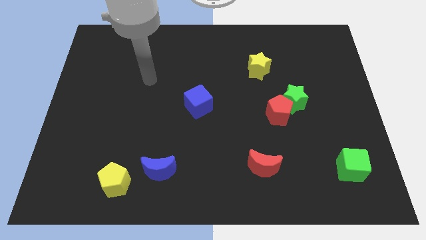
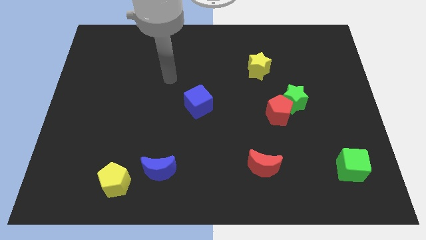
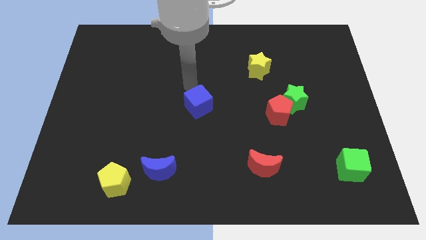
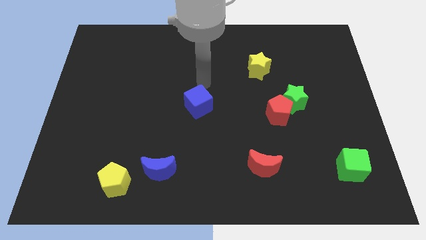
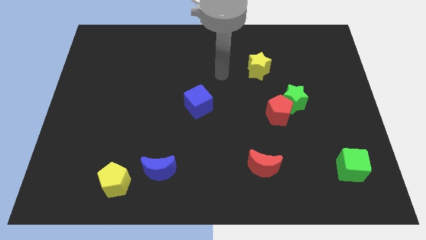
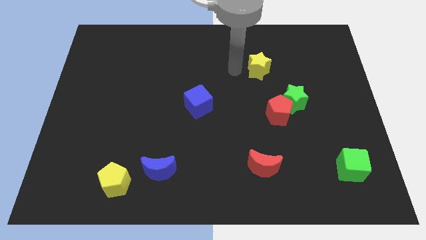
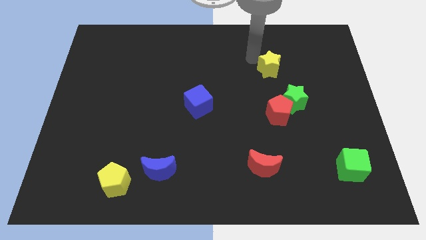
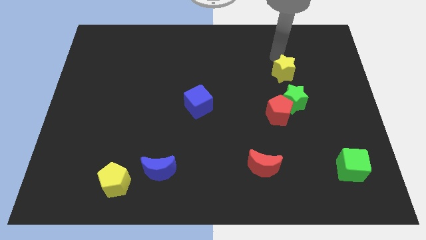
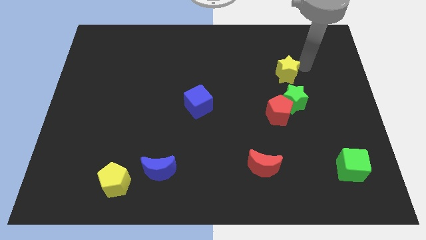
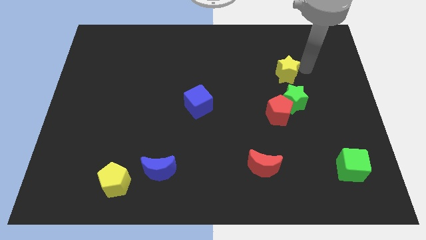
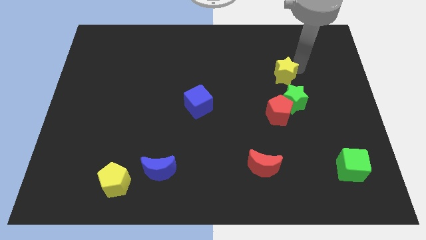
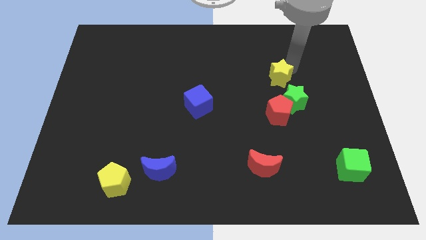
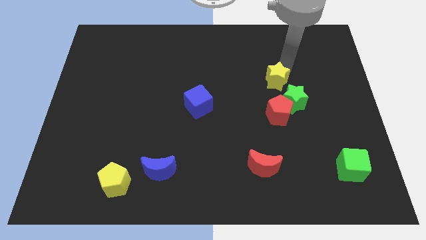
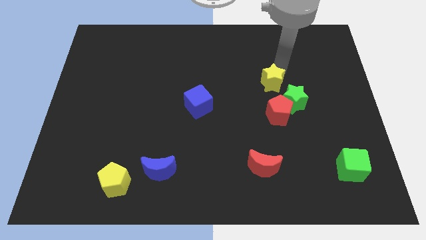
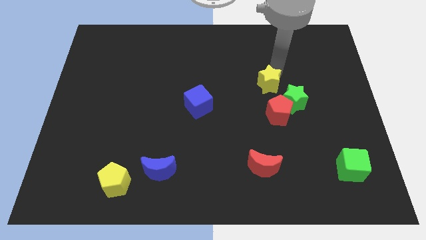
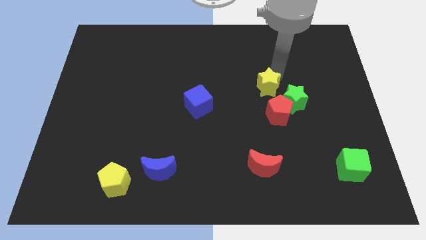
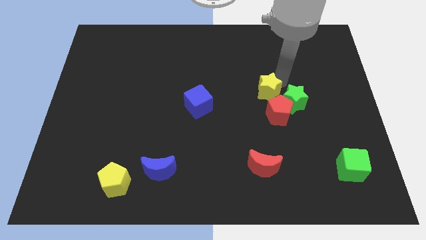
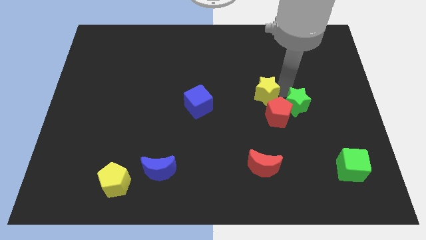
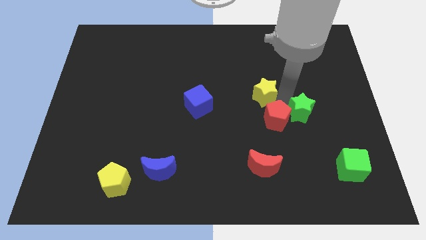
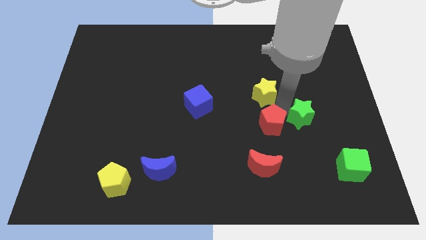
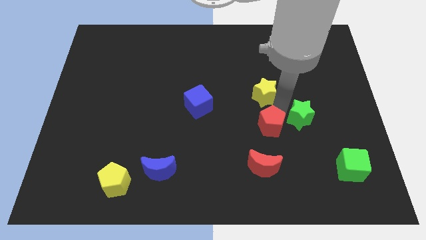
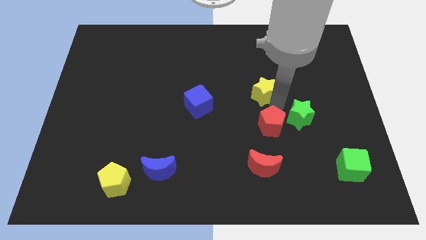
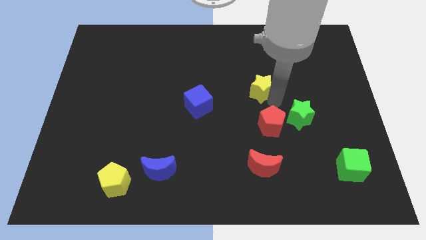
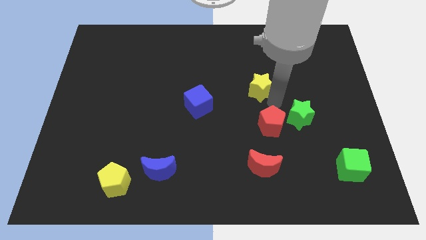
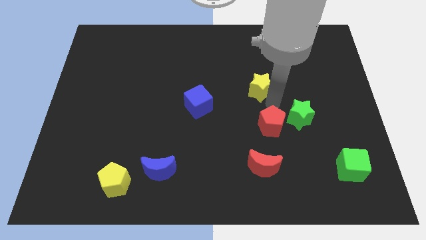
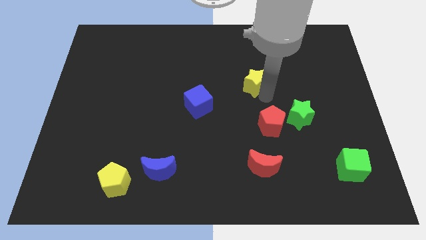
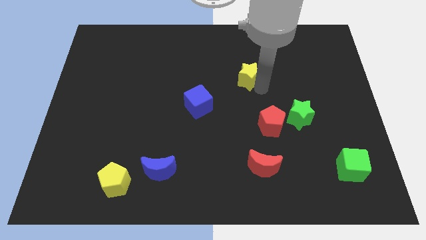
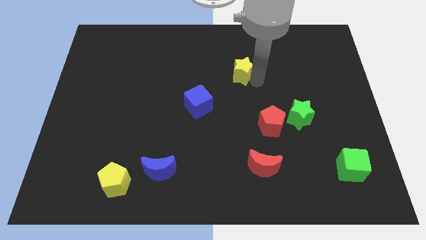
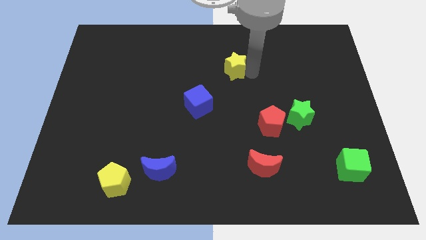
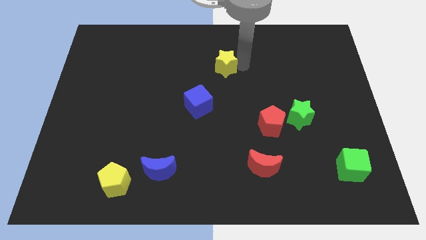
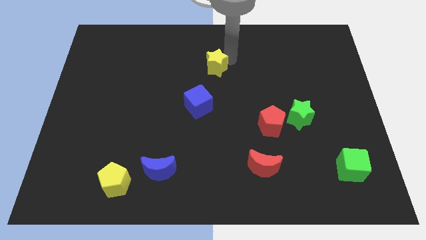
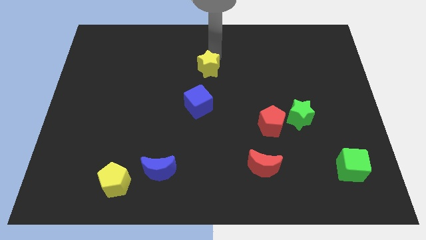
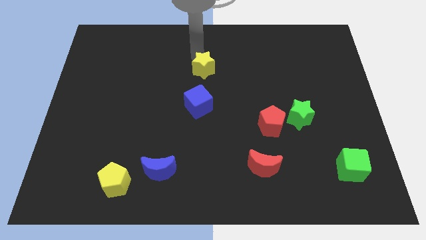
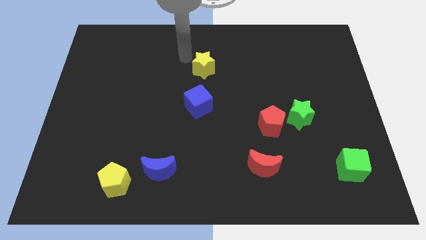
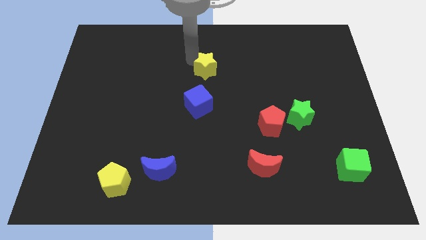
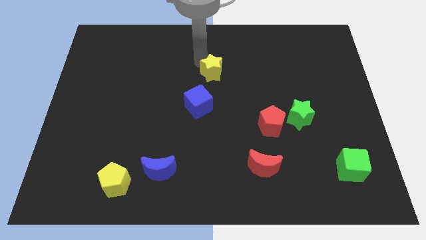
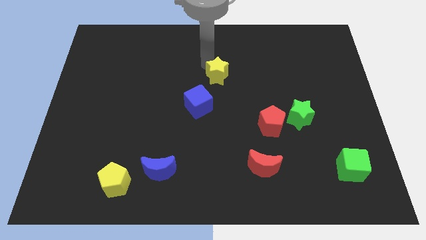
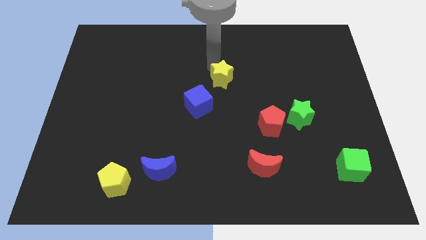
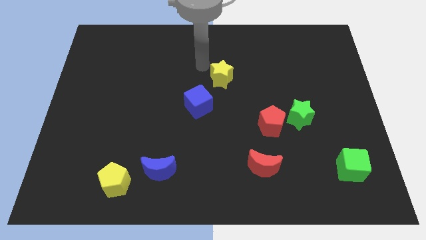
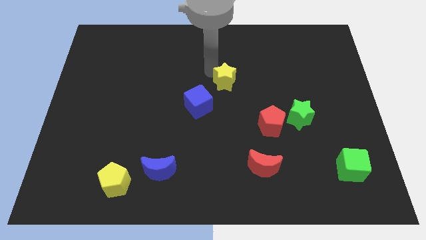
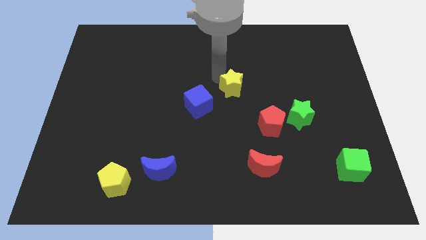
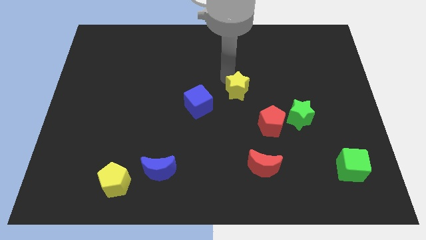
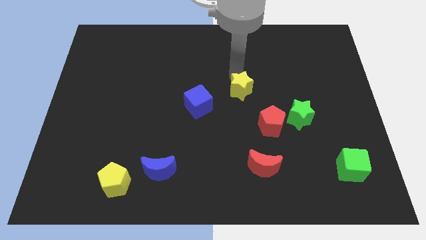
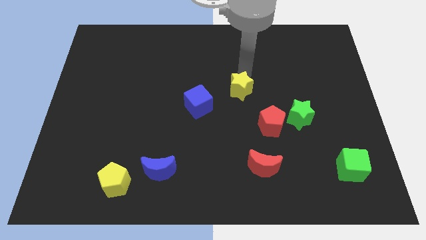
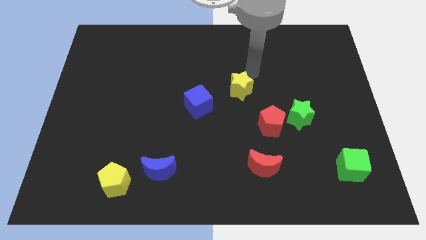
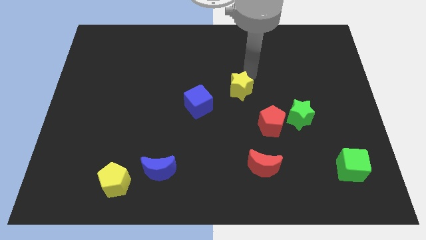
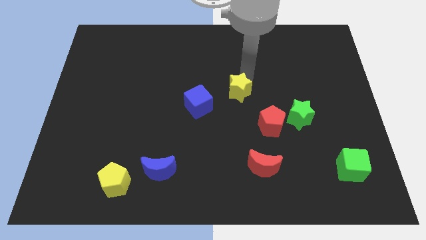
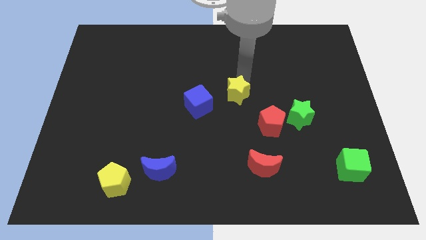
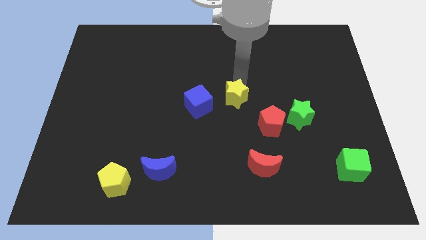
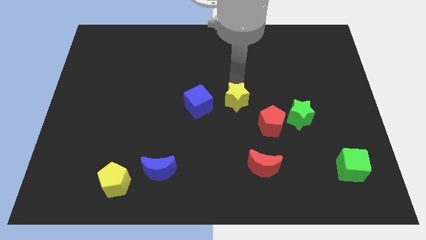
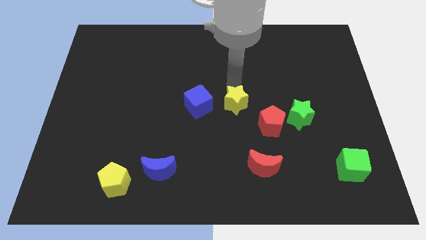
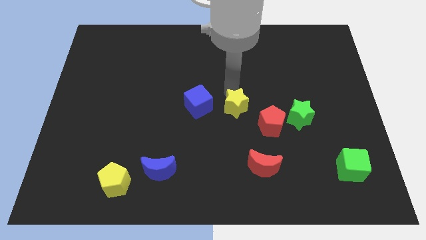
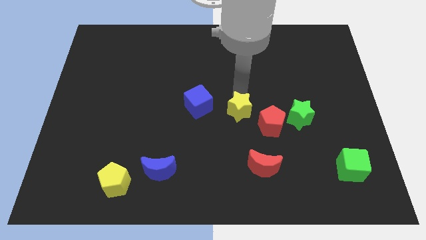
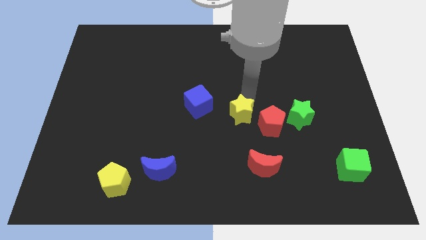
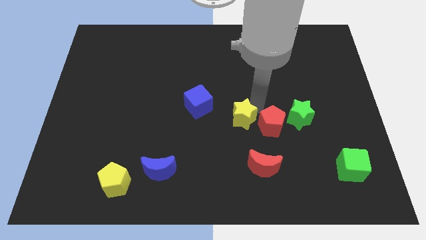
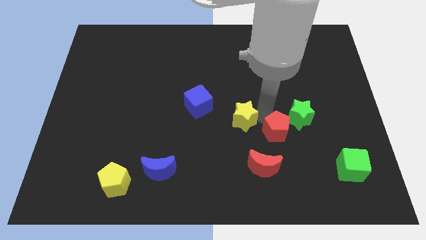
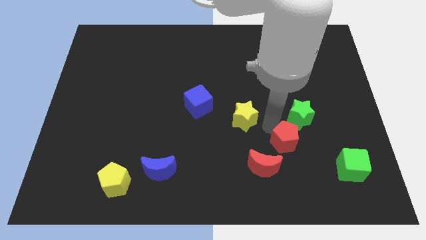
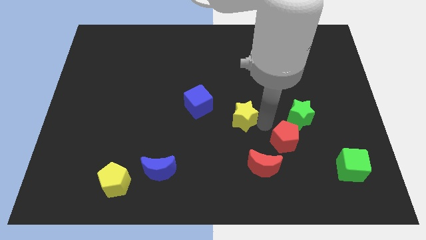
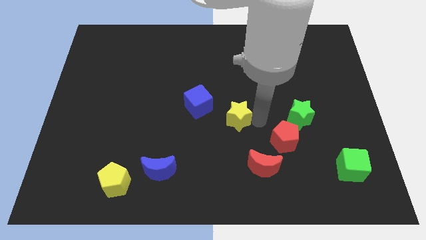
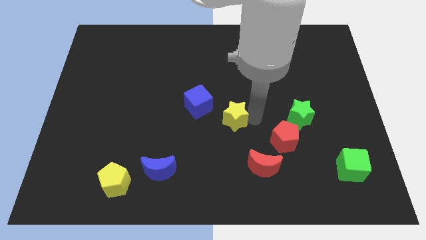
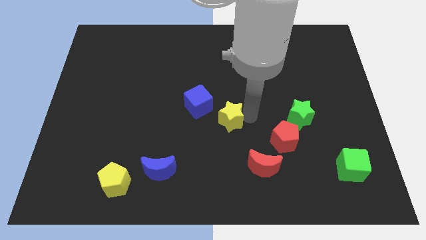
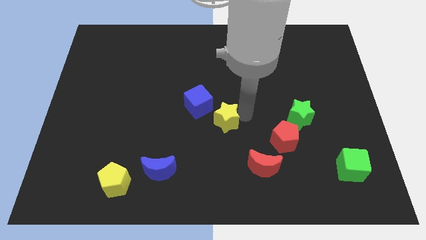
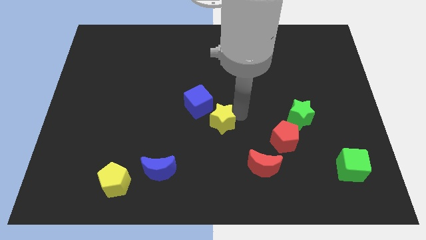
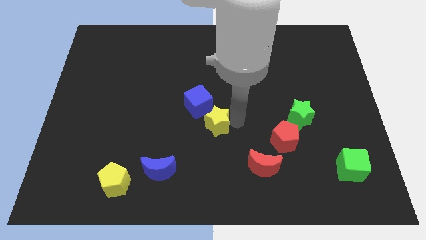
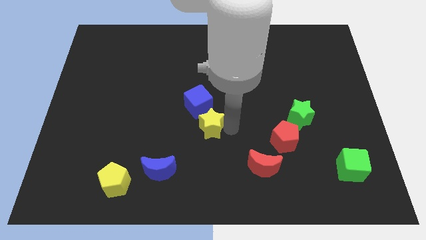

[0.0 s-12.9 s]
push the yellow star diagonally down and left

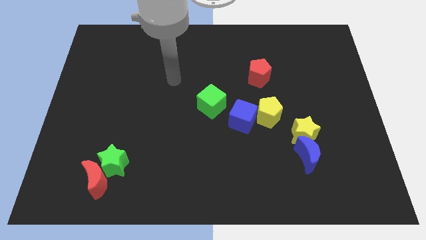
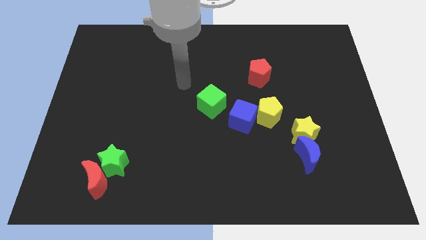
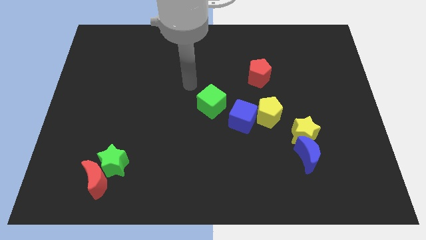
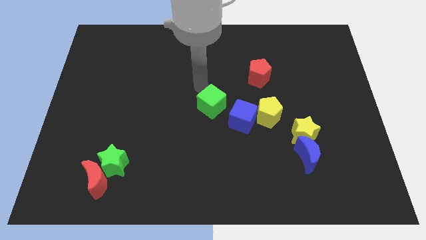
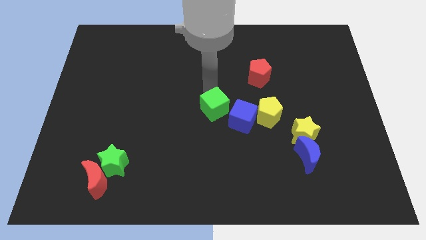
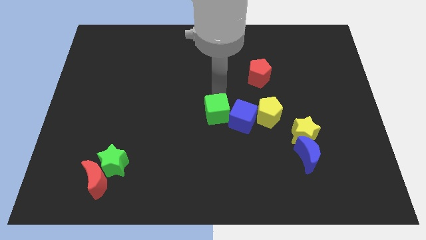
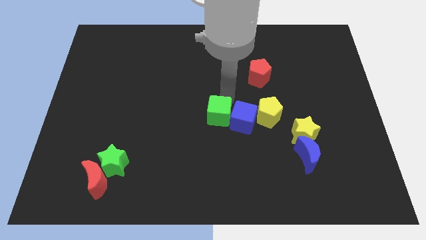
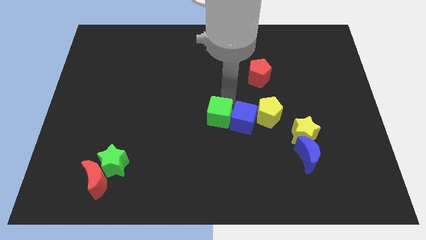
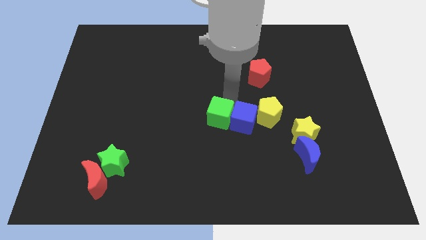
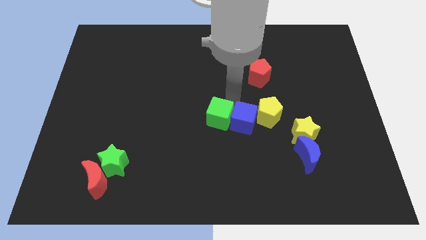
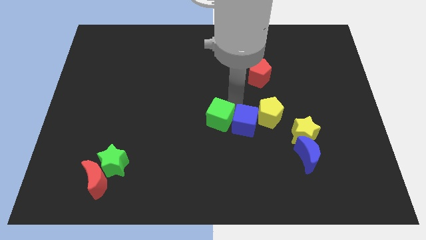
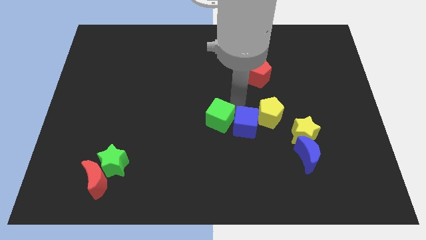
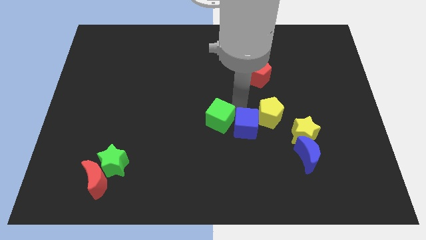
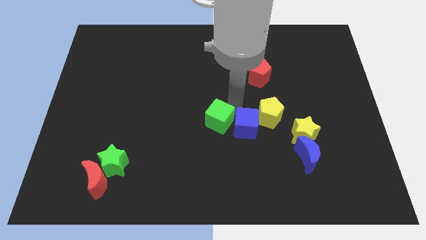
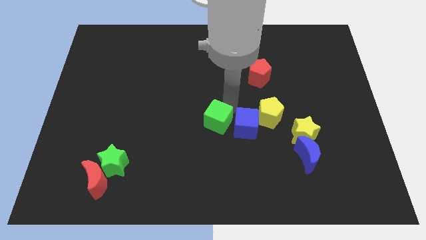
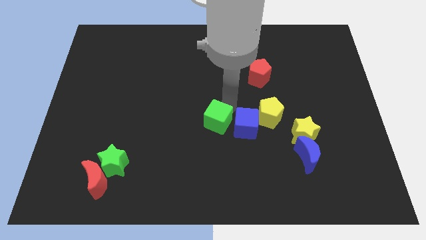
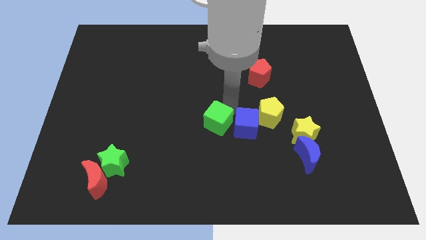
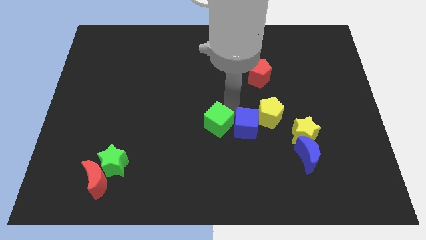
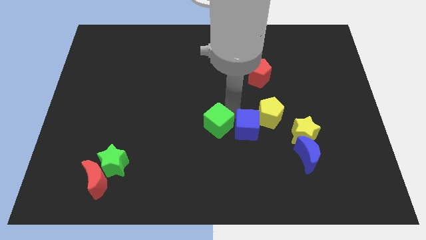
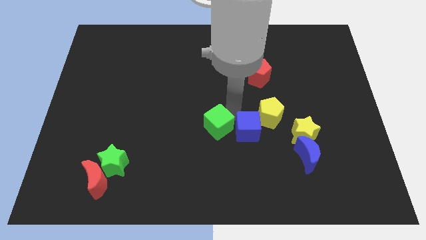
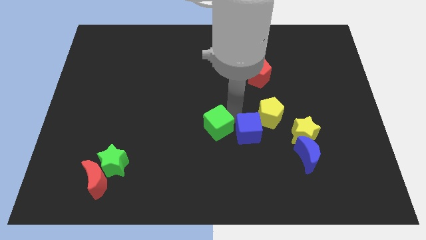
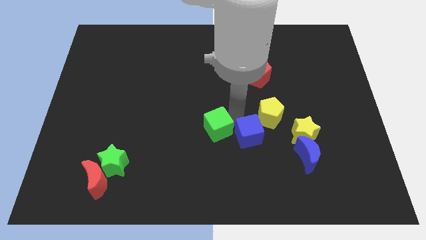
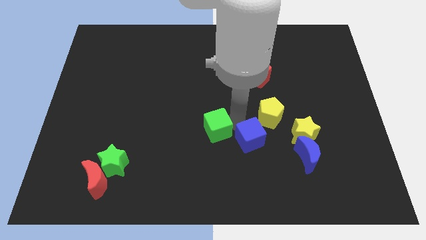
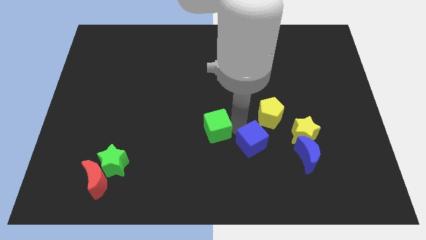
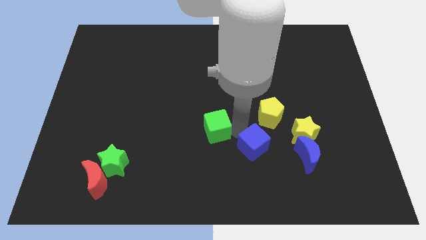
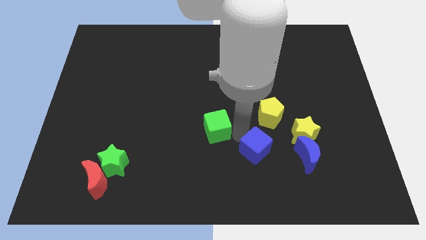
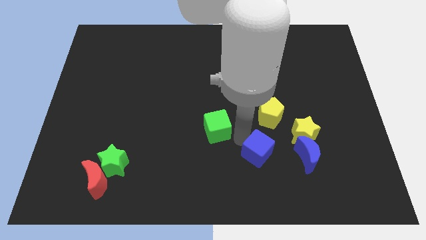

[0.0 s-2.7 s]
move the blue cube diagonally downwards and to the right a little bit
